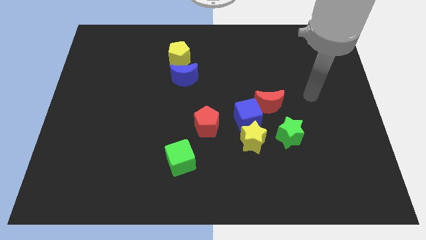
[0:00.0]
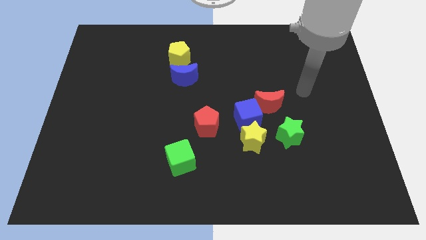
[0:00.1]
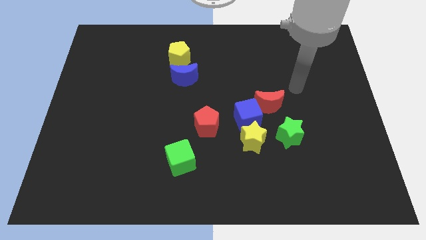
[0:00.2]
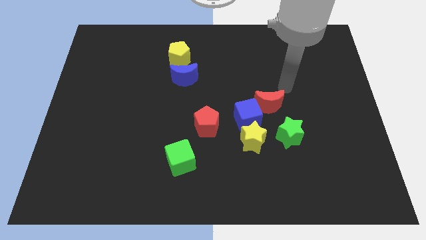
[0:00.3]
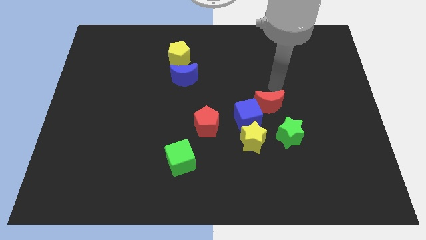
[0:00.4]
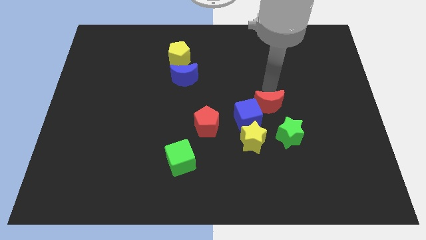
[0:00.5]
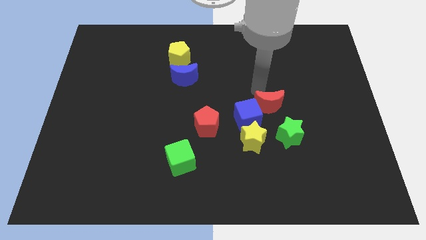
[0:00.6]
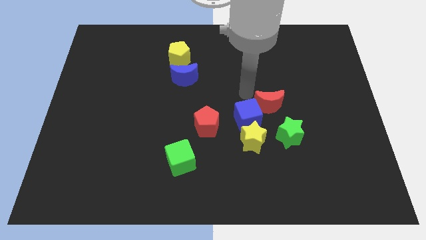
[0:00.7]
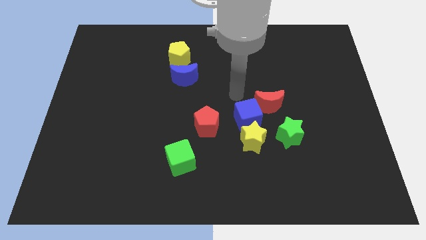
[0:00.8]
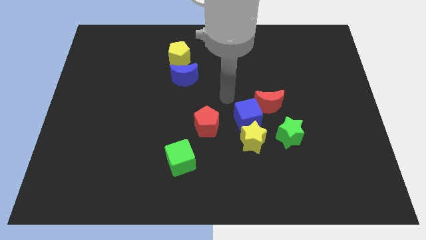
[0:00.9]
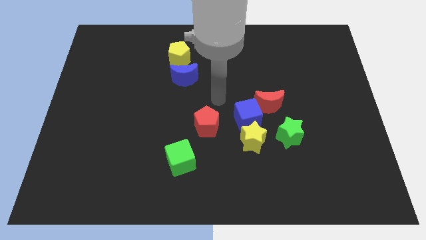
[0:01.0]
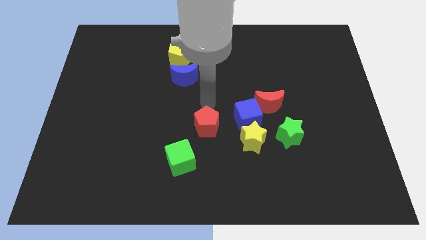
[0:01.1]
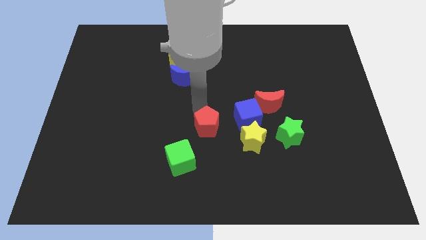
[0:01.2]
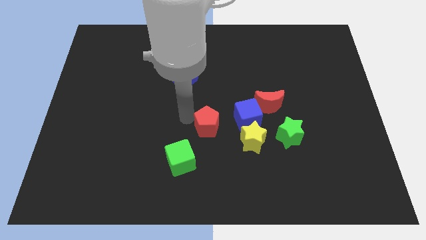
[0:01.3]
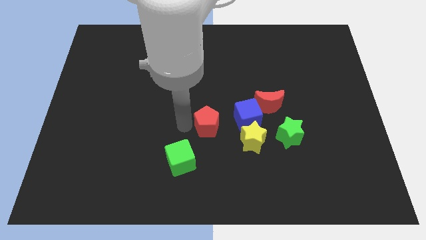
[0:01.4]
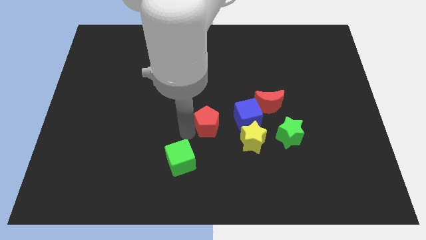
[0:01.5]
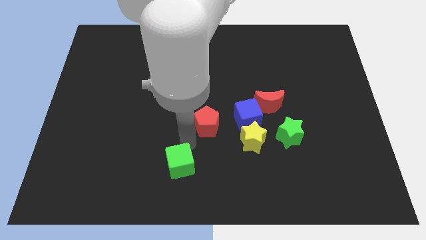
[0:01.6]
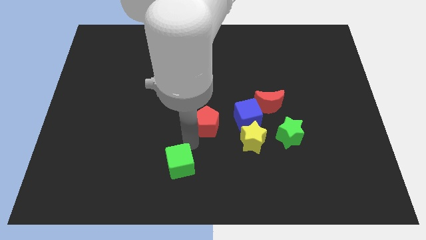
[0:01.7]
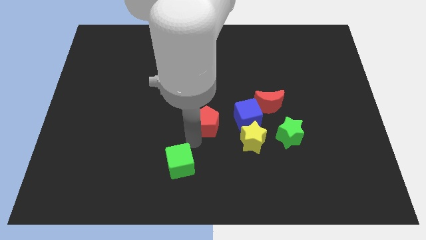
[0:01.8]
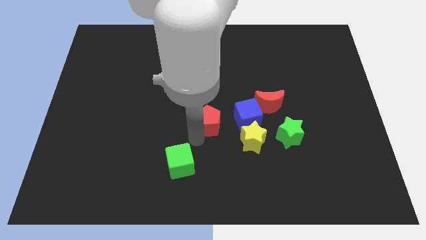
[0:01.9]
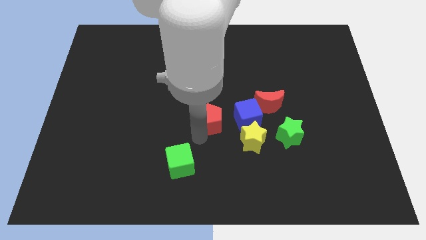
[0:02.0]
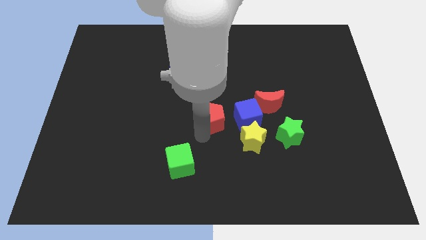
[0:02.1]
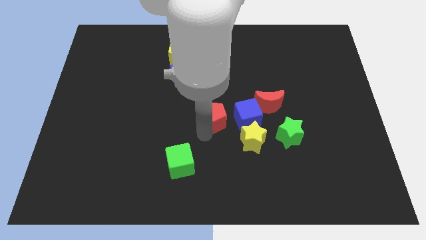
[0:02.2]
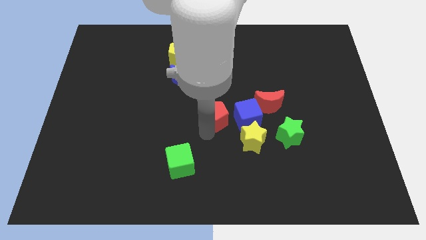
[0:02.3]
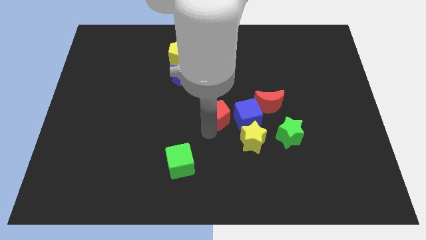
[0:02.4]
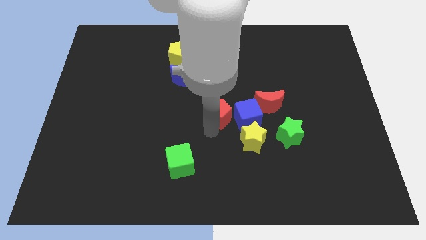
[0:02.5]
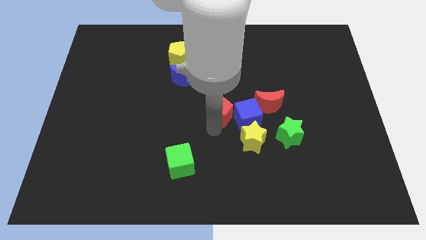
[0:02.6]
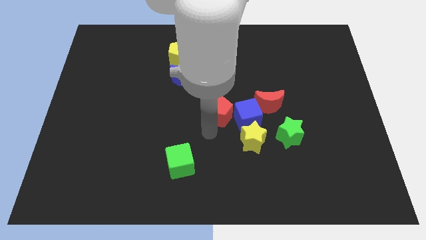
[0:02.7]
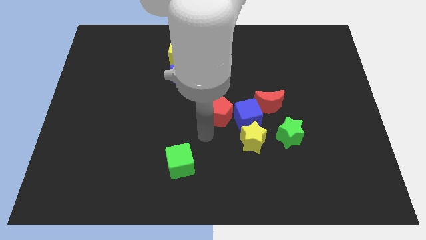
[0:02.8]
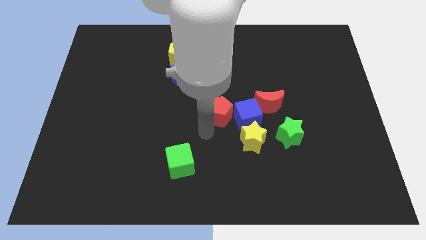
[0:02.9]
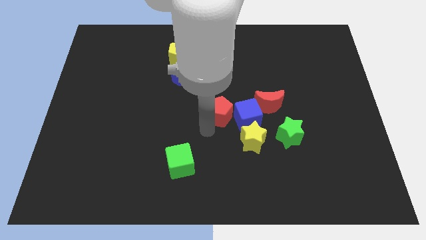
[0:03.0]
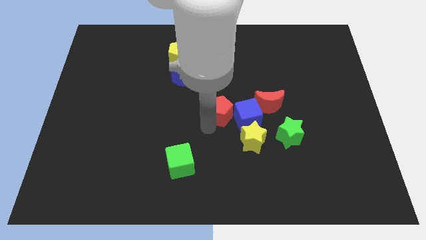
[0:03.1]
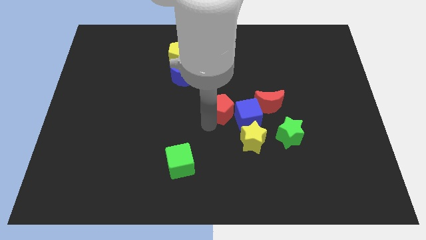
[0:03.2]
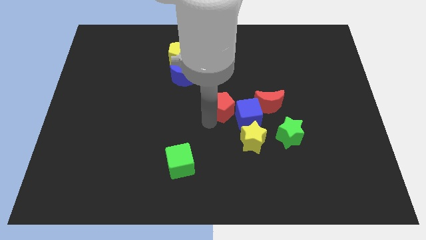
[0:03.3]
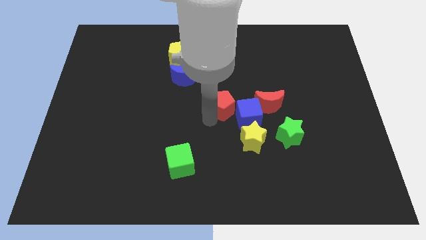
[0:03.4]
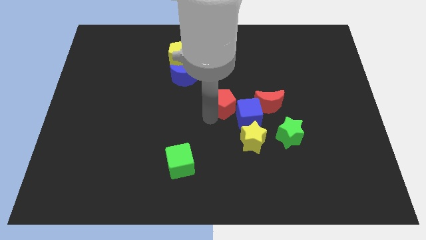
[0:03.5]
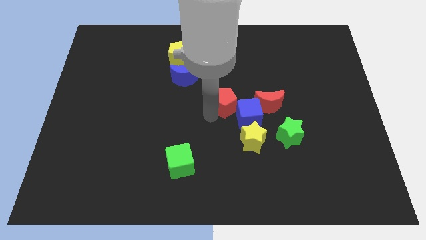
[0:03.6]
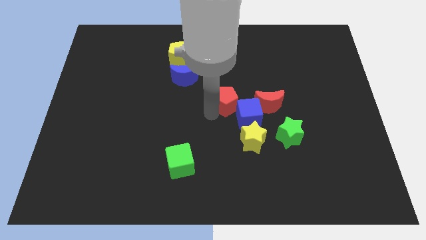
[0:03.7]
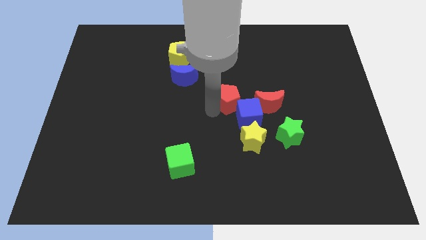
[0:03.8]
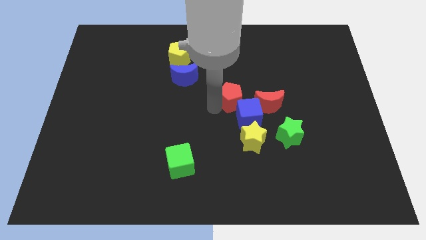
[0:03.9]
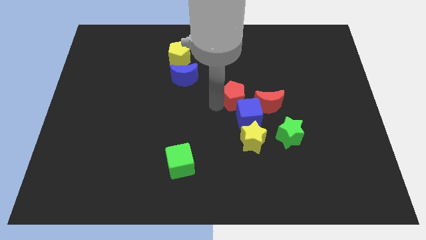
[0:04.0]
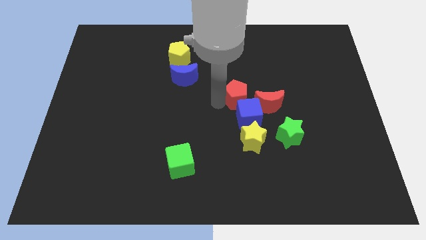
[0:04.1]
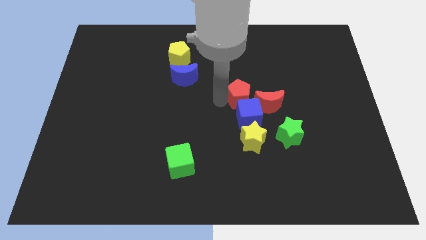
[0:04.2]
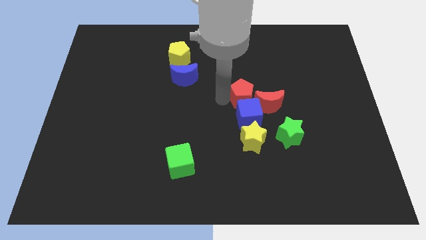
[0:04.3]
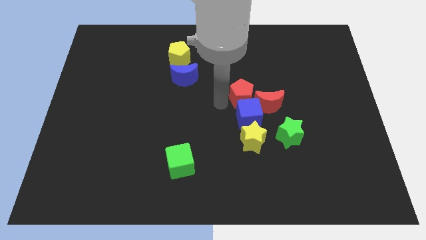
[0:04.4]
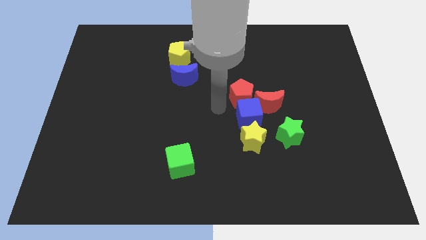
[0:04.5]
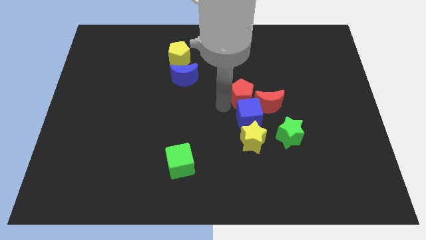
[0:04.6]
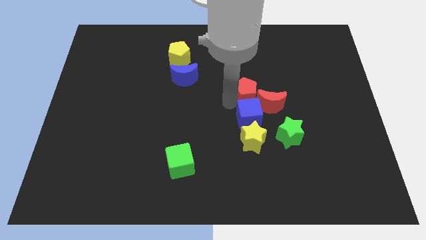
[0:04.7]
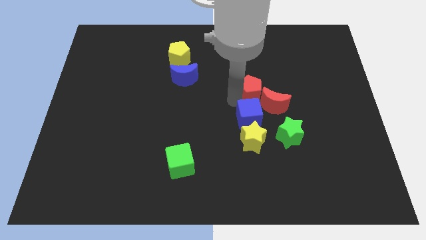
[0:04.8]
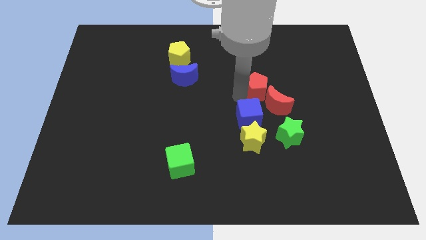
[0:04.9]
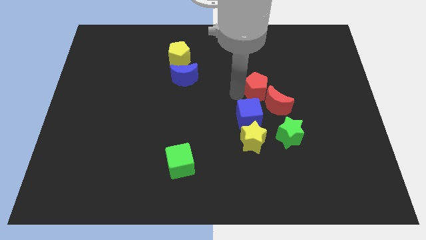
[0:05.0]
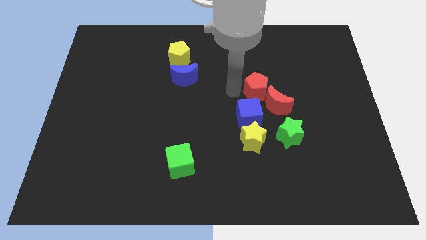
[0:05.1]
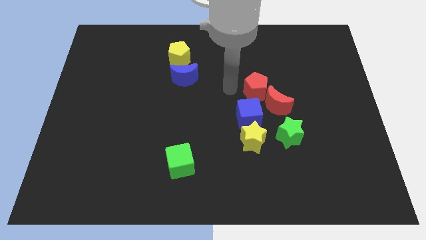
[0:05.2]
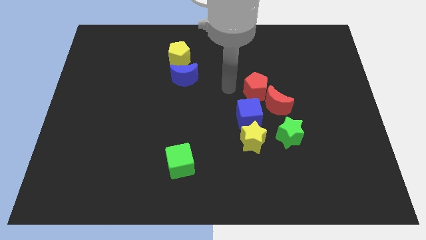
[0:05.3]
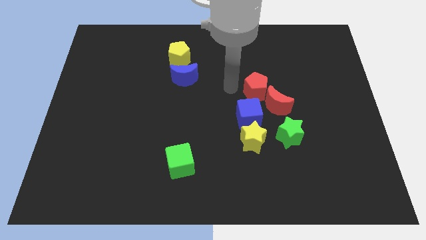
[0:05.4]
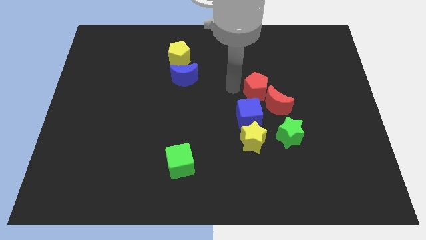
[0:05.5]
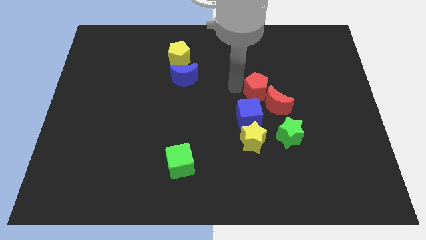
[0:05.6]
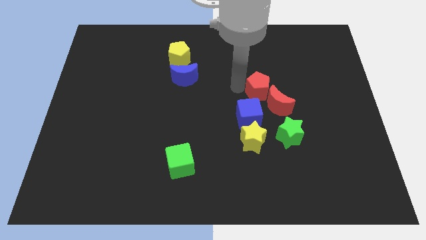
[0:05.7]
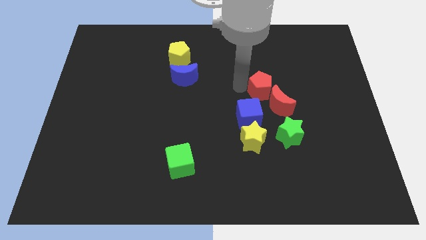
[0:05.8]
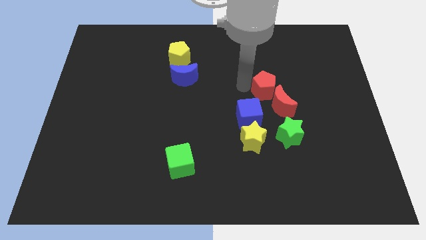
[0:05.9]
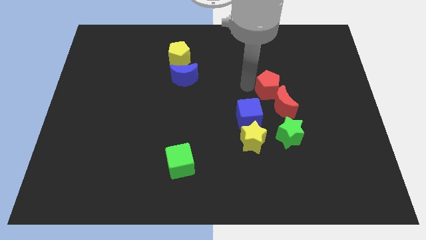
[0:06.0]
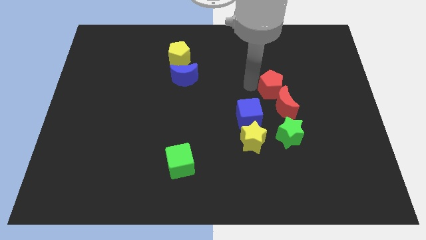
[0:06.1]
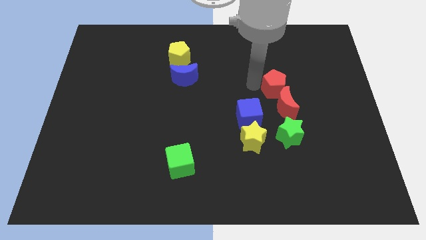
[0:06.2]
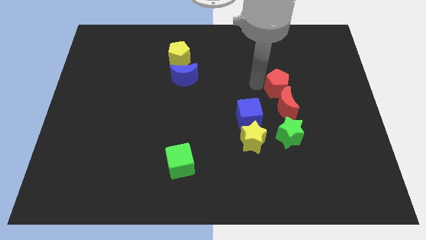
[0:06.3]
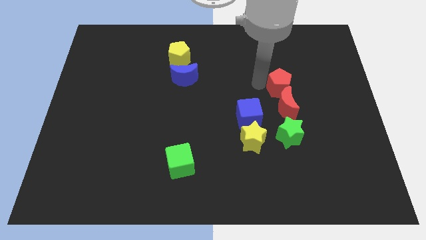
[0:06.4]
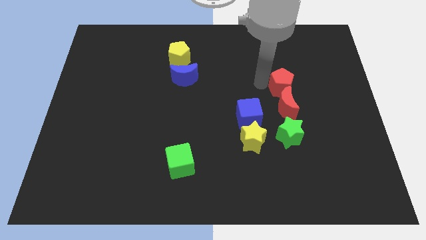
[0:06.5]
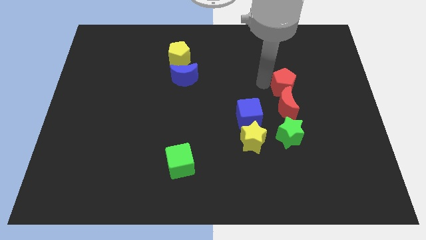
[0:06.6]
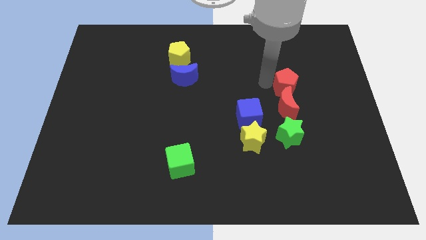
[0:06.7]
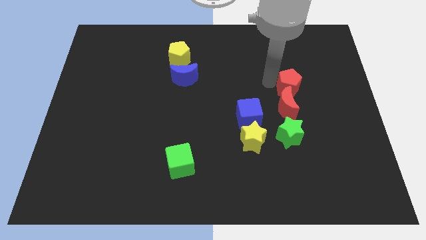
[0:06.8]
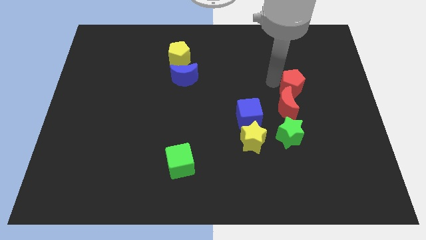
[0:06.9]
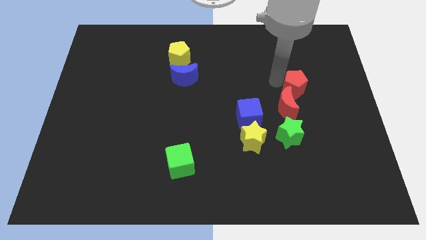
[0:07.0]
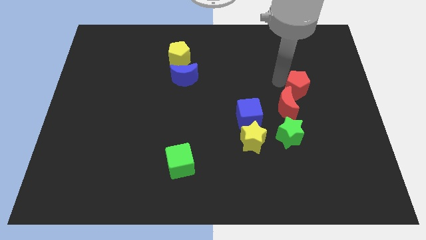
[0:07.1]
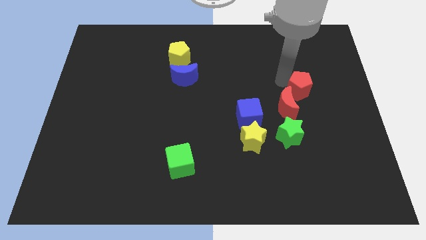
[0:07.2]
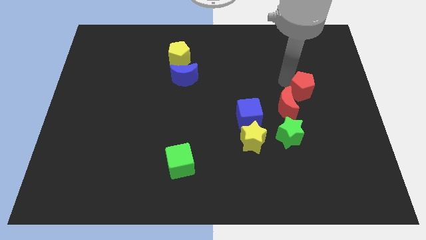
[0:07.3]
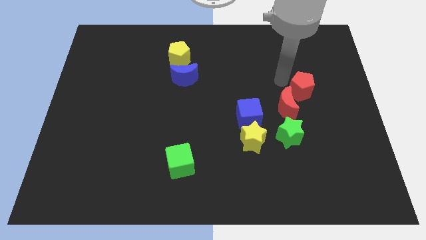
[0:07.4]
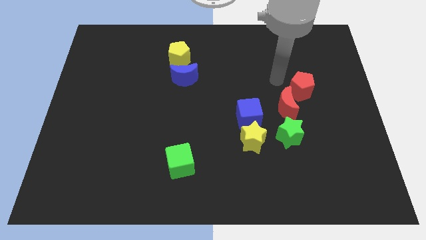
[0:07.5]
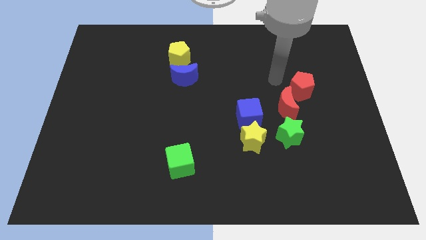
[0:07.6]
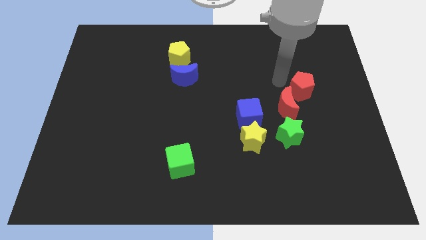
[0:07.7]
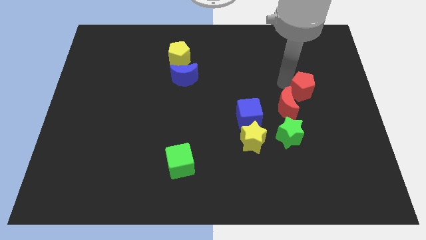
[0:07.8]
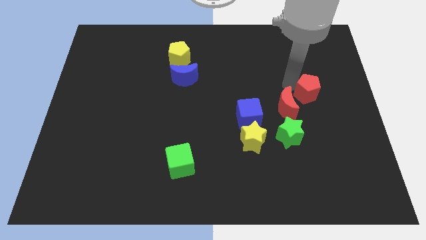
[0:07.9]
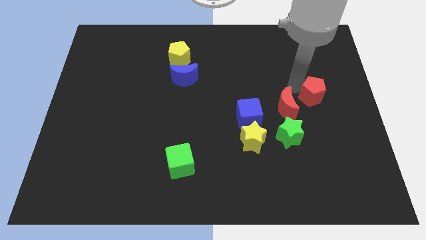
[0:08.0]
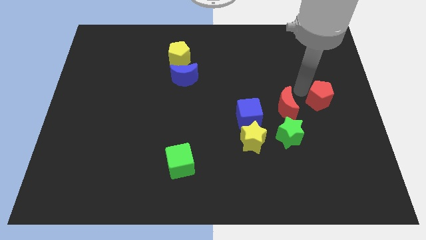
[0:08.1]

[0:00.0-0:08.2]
push the red pentagon to the right side
